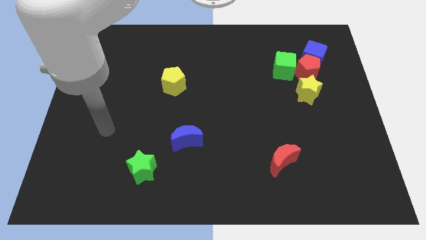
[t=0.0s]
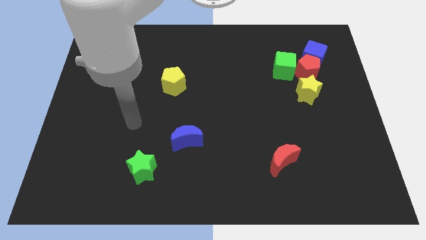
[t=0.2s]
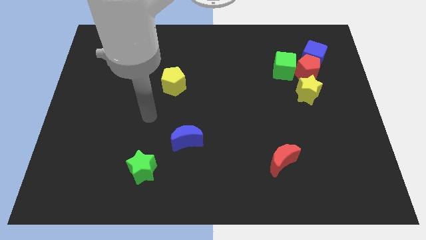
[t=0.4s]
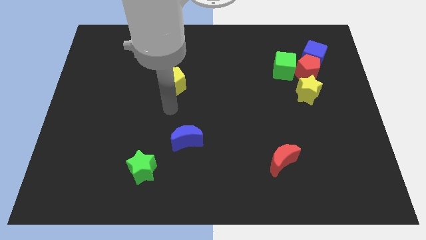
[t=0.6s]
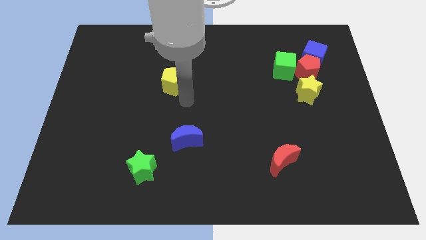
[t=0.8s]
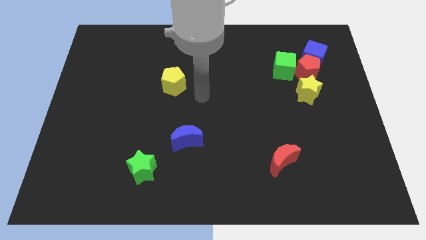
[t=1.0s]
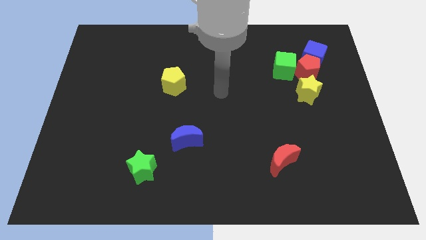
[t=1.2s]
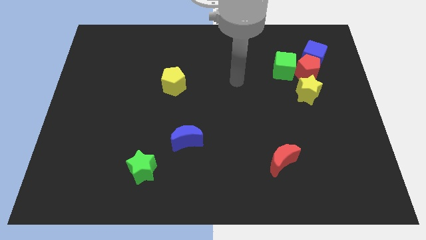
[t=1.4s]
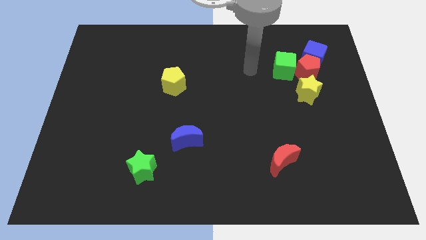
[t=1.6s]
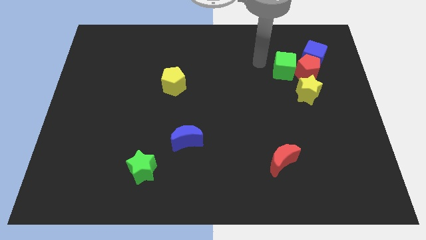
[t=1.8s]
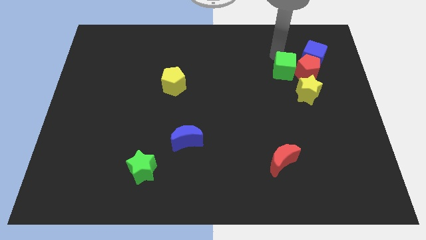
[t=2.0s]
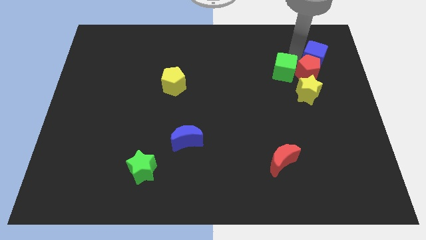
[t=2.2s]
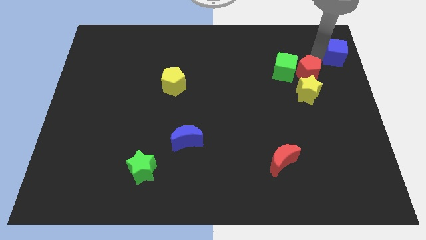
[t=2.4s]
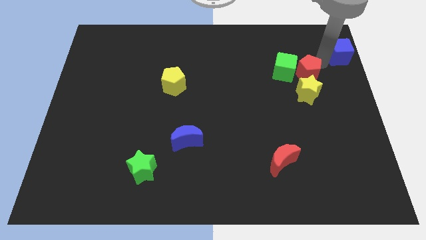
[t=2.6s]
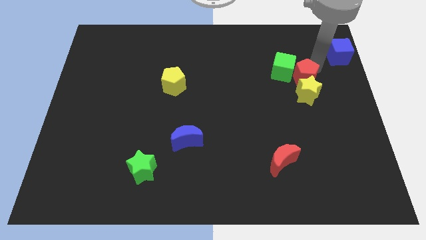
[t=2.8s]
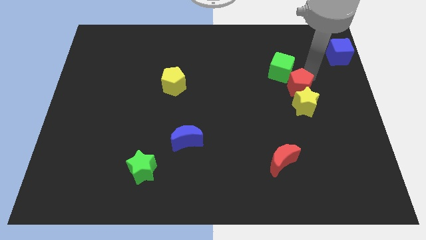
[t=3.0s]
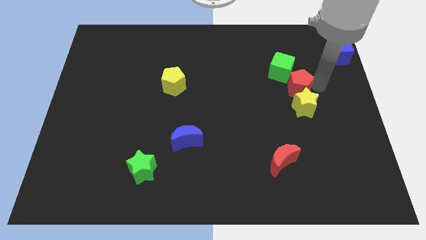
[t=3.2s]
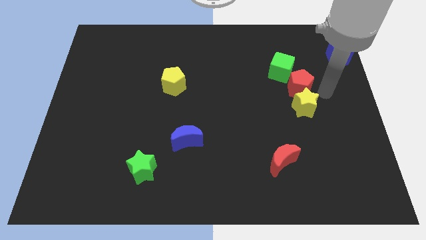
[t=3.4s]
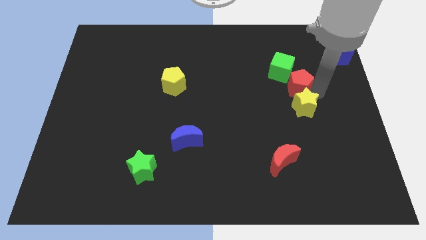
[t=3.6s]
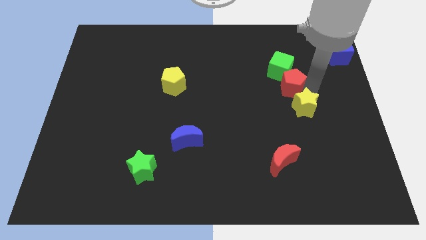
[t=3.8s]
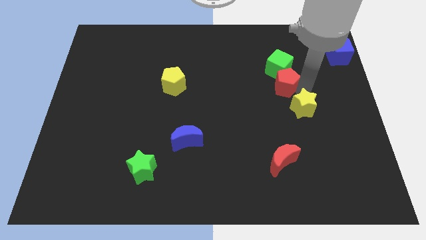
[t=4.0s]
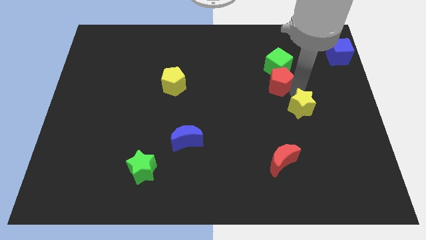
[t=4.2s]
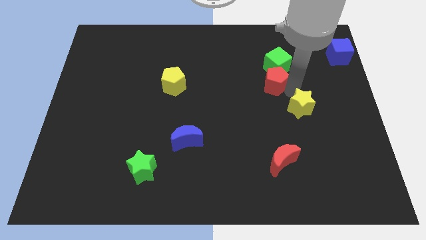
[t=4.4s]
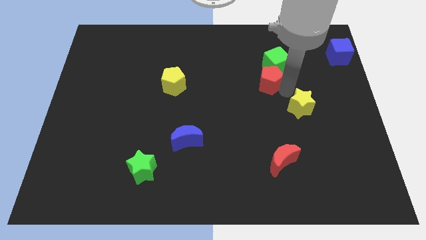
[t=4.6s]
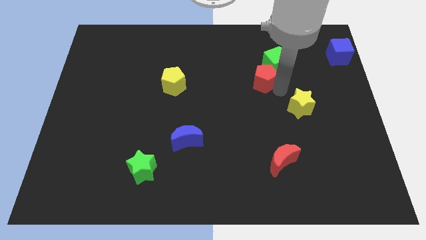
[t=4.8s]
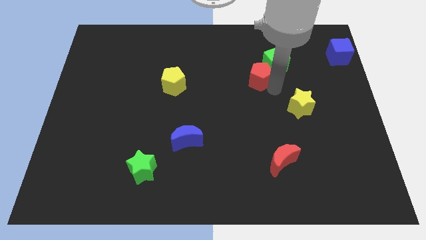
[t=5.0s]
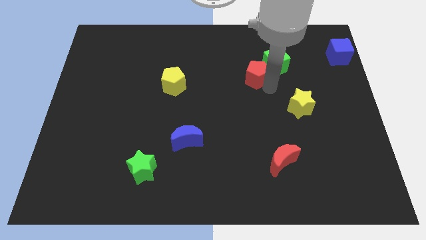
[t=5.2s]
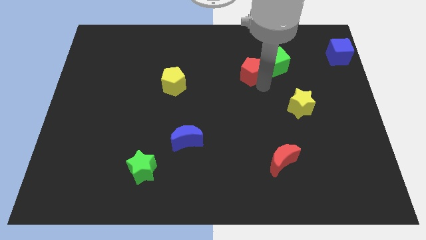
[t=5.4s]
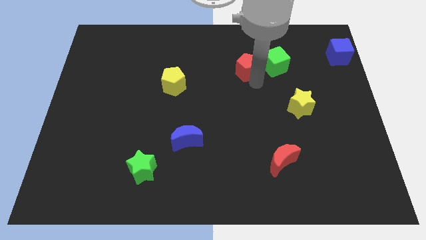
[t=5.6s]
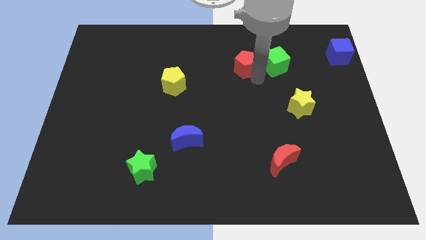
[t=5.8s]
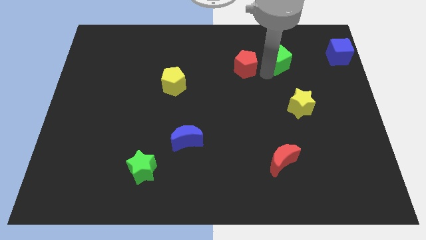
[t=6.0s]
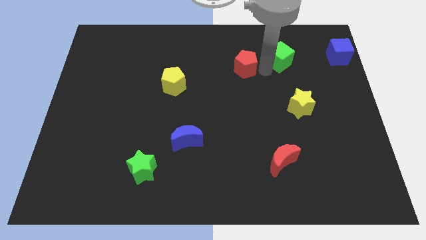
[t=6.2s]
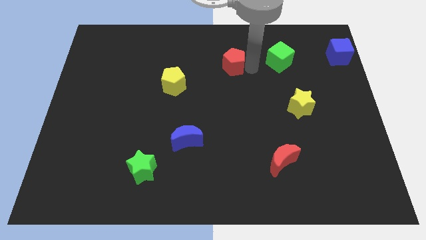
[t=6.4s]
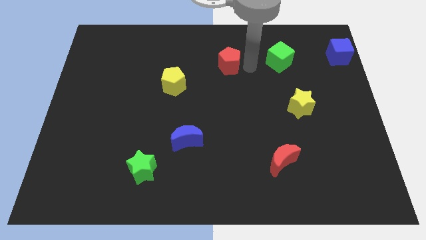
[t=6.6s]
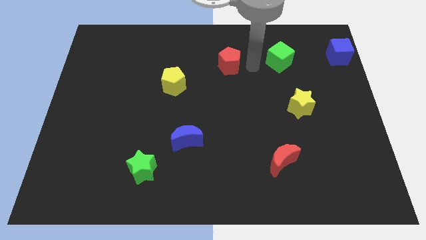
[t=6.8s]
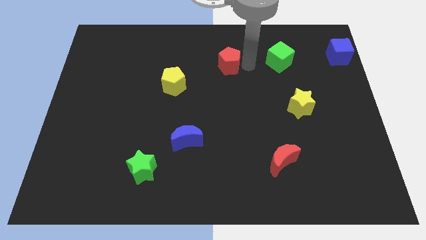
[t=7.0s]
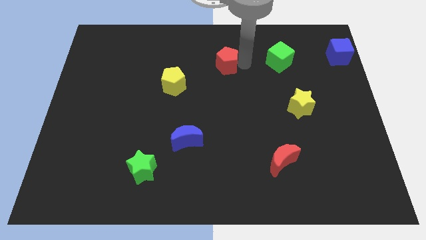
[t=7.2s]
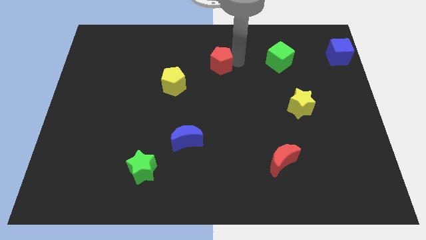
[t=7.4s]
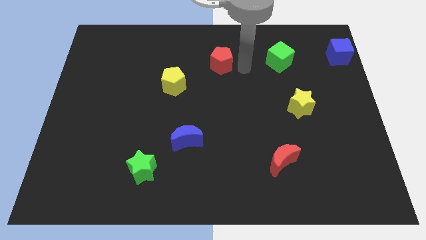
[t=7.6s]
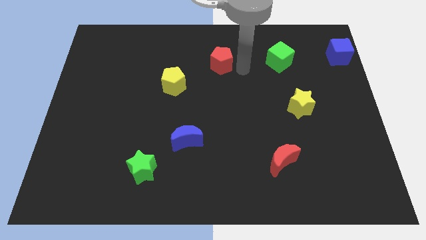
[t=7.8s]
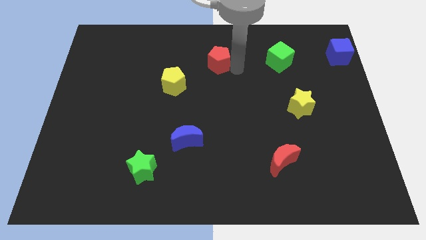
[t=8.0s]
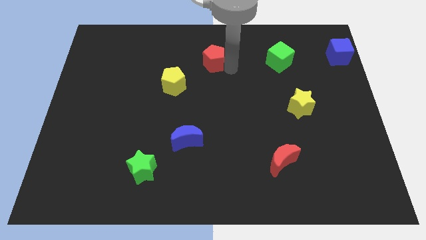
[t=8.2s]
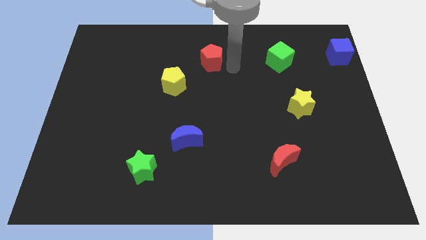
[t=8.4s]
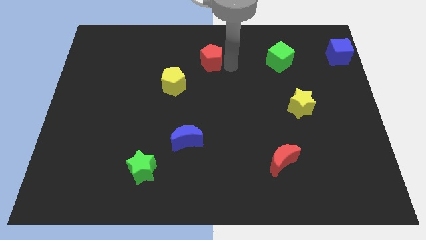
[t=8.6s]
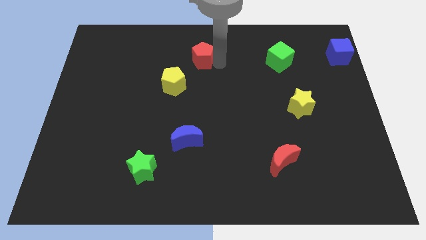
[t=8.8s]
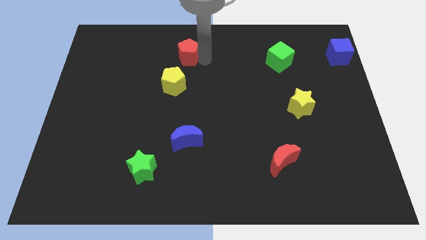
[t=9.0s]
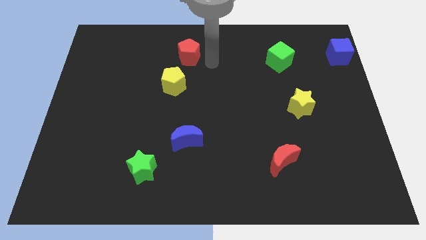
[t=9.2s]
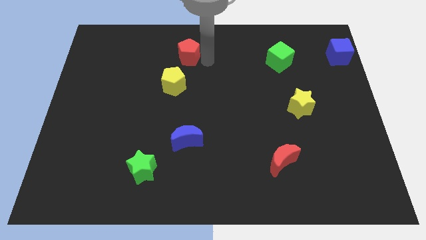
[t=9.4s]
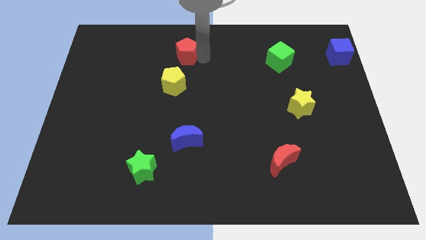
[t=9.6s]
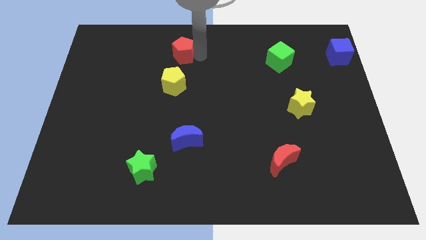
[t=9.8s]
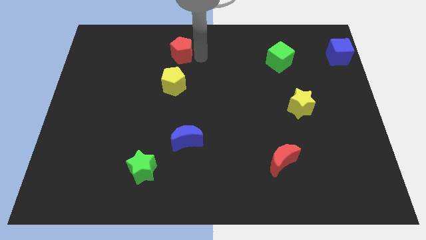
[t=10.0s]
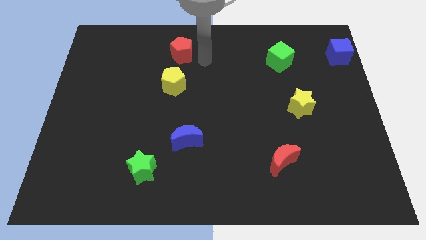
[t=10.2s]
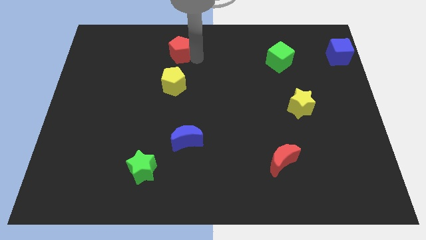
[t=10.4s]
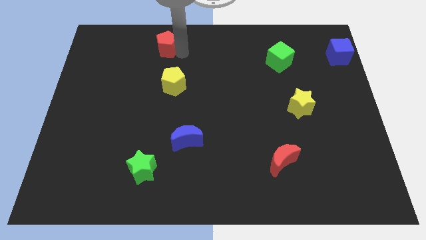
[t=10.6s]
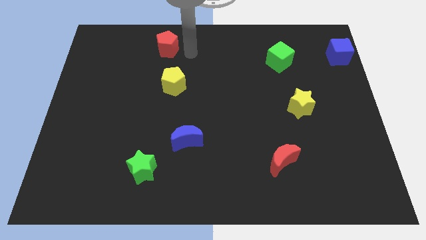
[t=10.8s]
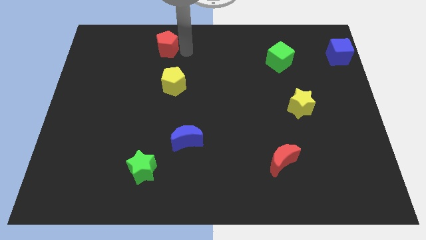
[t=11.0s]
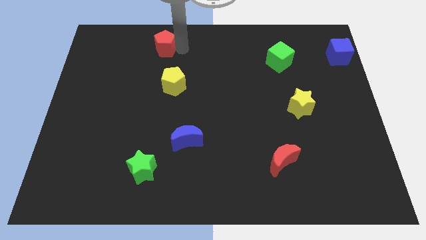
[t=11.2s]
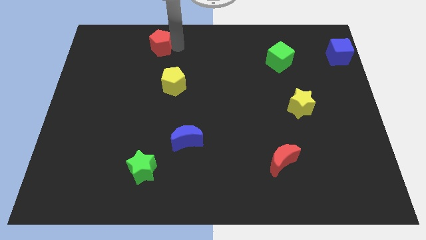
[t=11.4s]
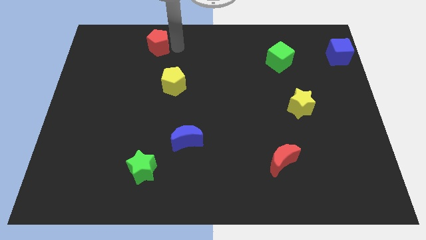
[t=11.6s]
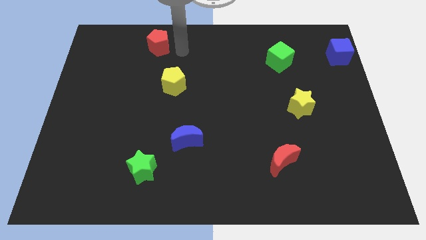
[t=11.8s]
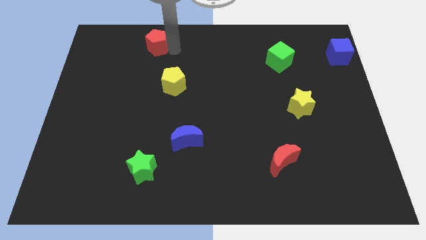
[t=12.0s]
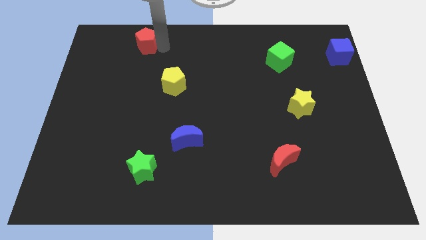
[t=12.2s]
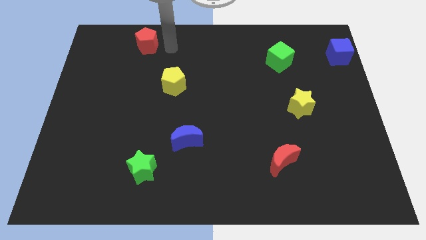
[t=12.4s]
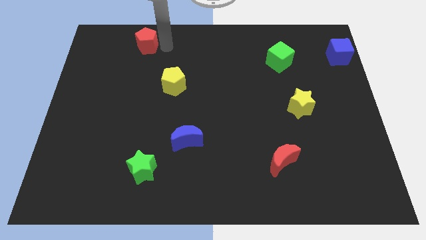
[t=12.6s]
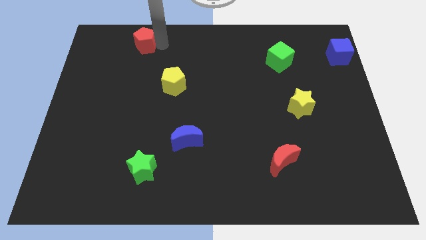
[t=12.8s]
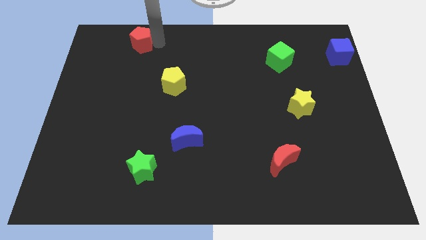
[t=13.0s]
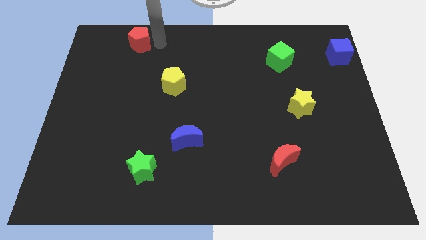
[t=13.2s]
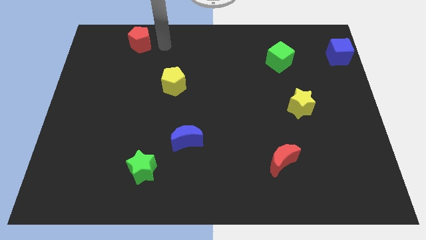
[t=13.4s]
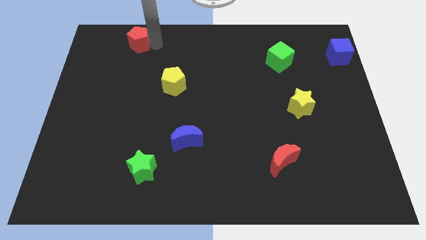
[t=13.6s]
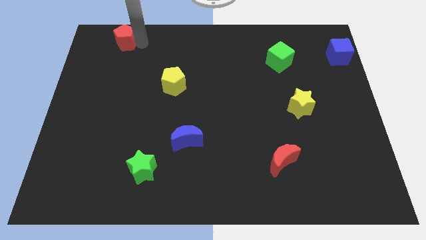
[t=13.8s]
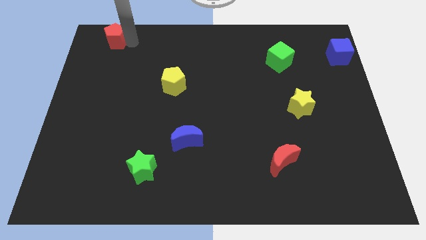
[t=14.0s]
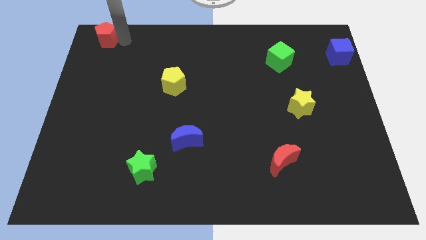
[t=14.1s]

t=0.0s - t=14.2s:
move the red pentagon to the upper left corner

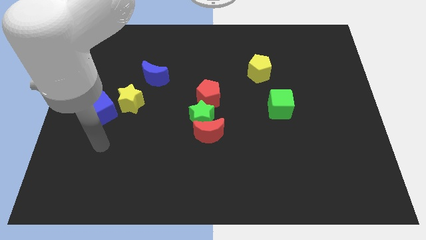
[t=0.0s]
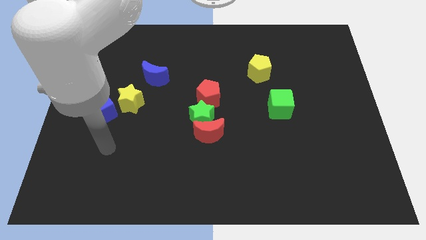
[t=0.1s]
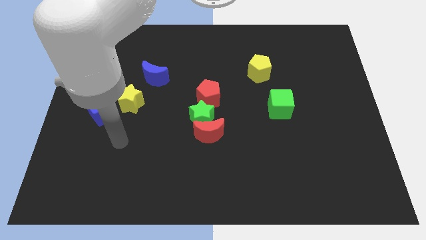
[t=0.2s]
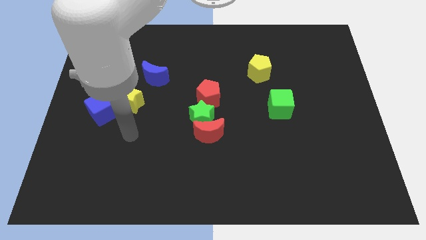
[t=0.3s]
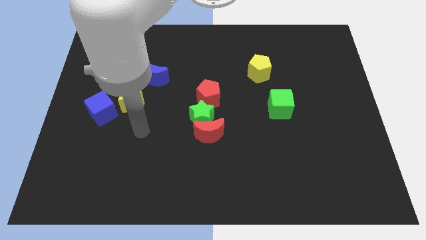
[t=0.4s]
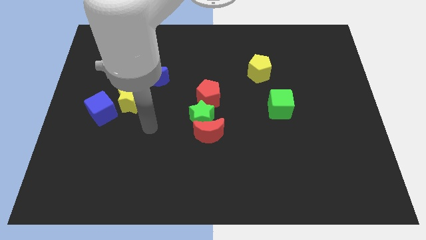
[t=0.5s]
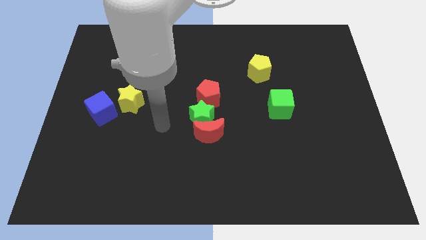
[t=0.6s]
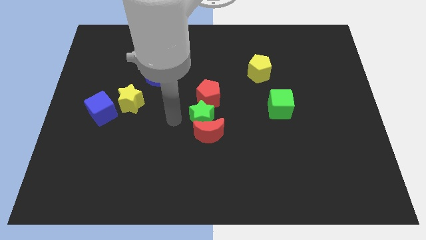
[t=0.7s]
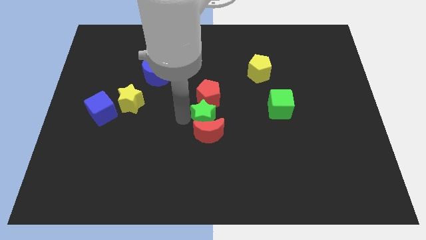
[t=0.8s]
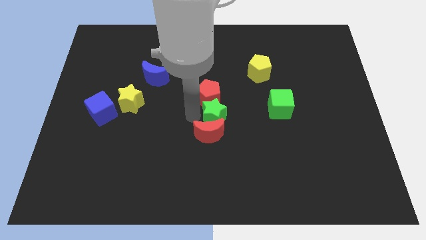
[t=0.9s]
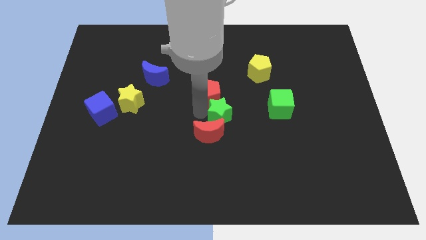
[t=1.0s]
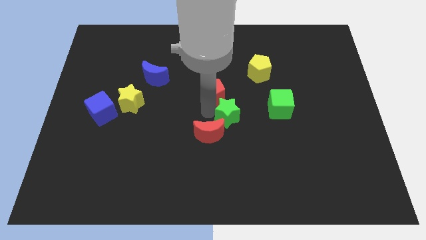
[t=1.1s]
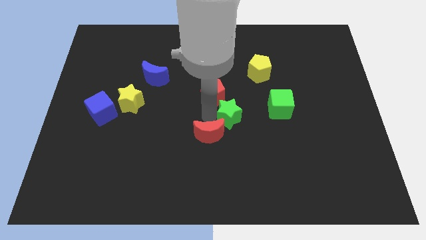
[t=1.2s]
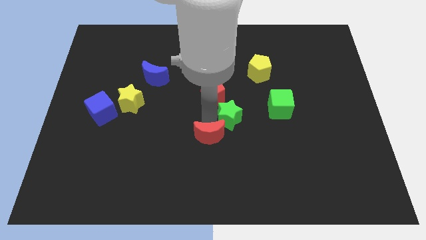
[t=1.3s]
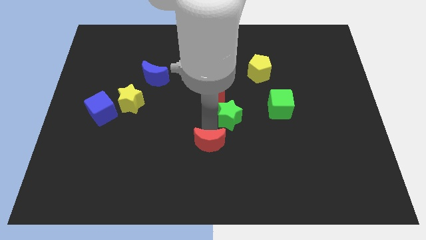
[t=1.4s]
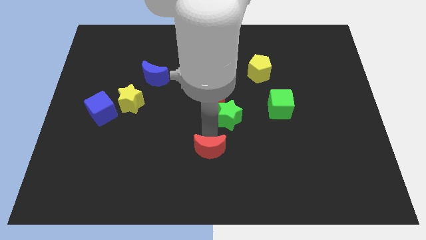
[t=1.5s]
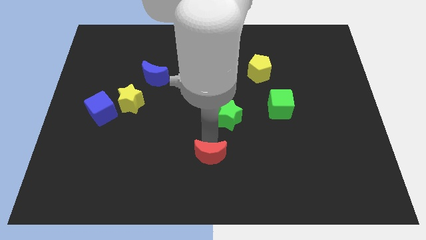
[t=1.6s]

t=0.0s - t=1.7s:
put the red moon to the bottom
